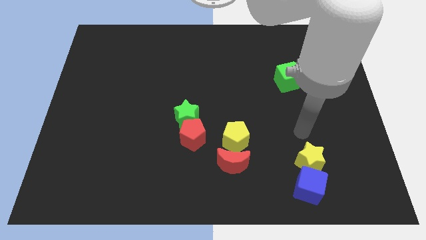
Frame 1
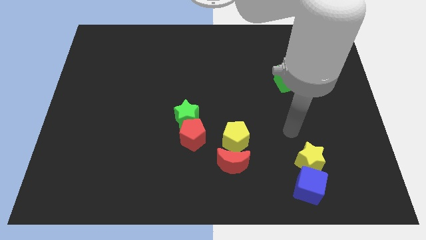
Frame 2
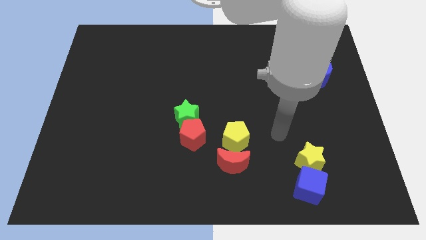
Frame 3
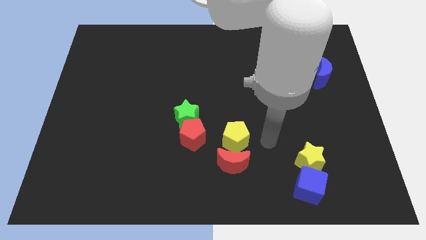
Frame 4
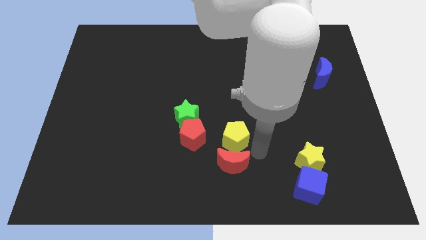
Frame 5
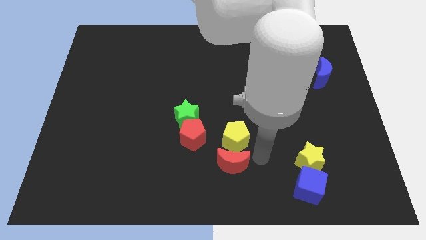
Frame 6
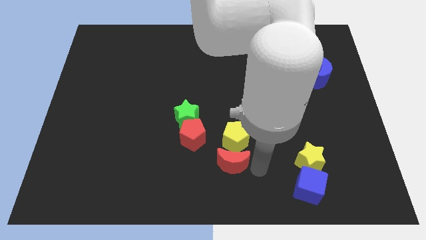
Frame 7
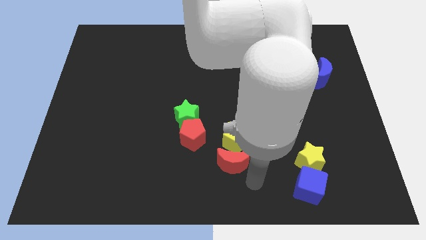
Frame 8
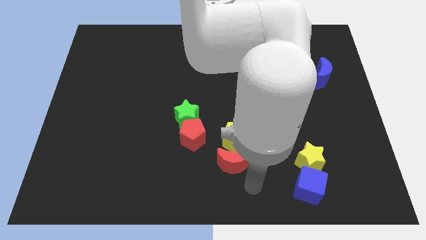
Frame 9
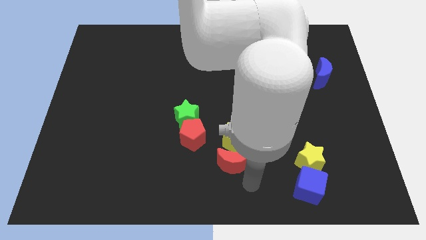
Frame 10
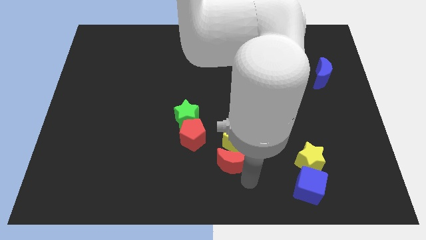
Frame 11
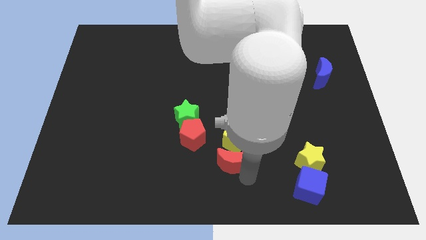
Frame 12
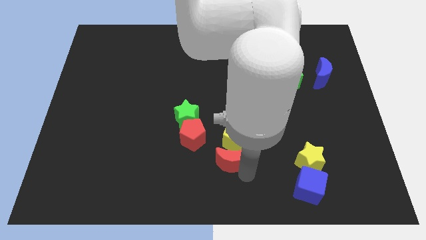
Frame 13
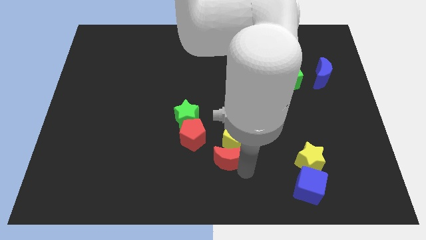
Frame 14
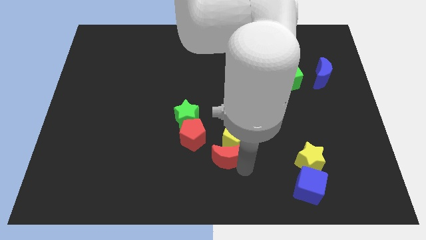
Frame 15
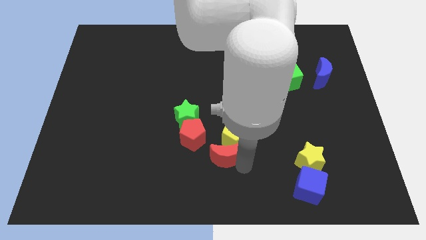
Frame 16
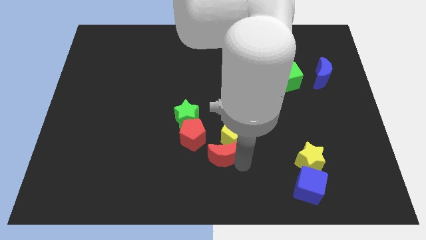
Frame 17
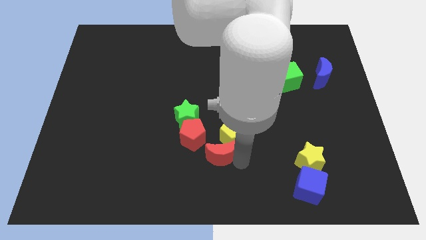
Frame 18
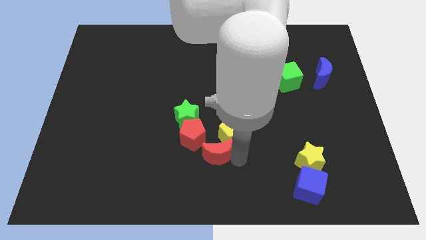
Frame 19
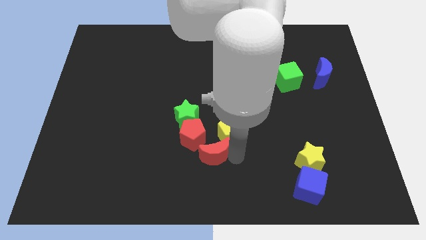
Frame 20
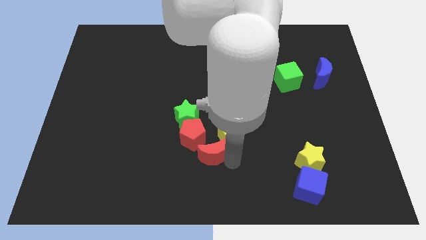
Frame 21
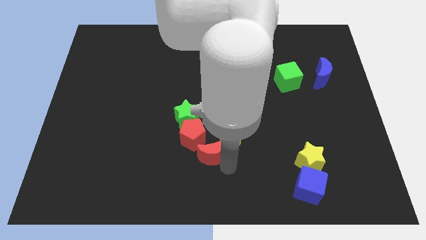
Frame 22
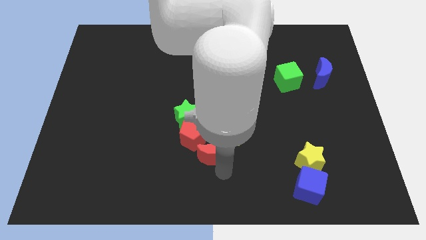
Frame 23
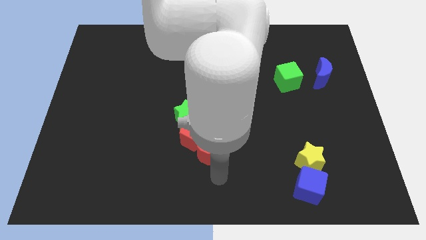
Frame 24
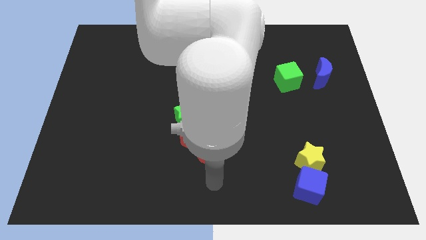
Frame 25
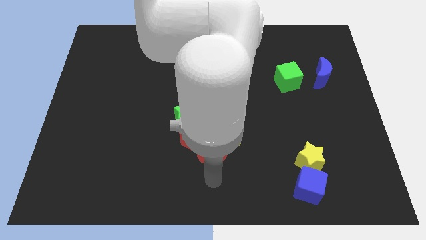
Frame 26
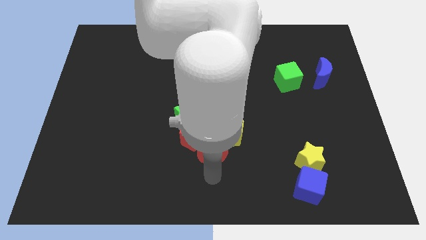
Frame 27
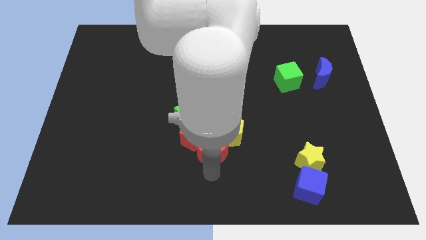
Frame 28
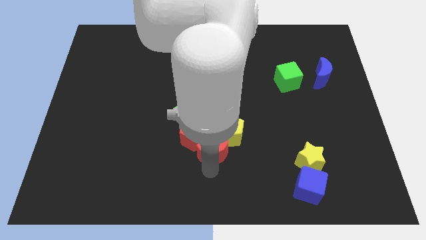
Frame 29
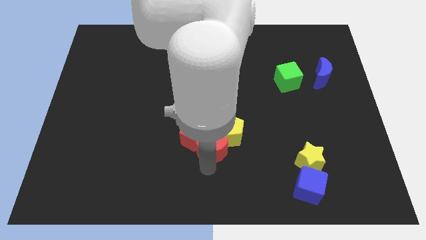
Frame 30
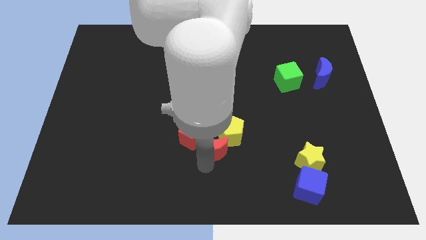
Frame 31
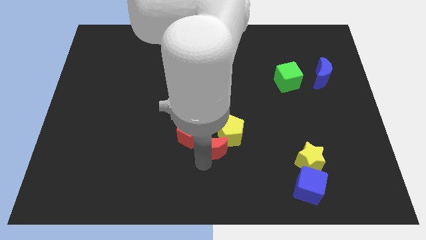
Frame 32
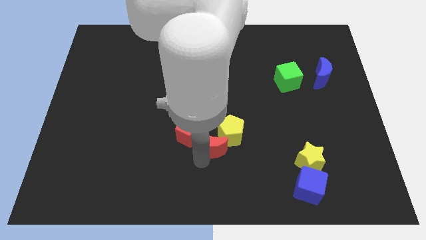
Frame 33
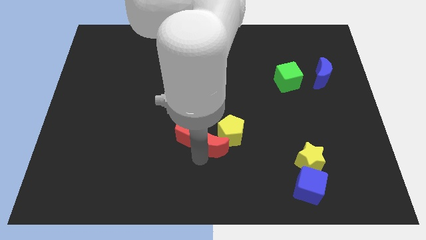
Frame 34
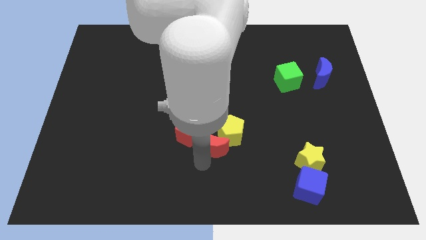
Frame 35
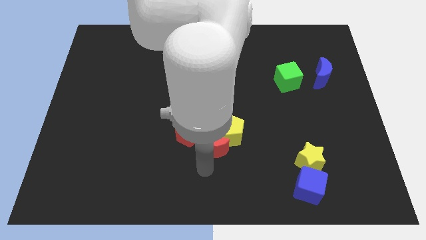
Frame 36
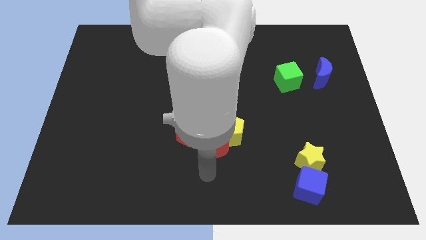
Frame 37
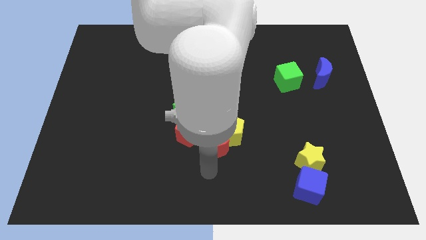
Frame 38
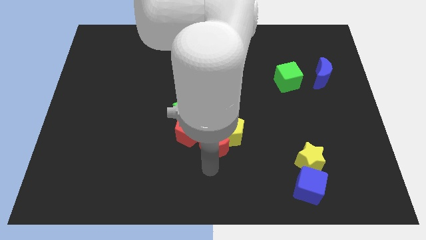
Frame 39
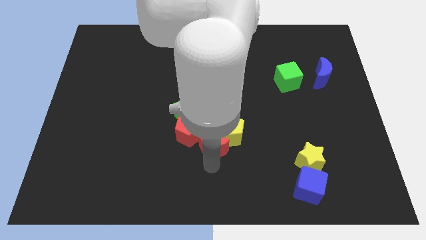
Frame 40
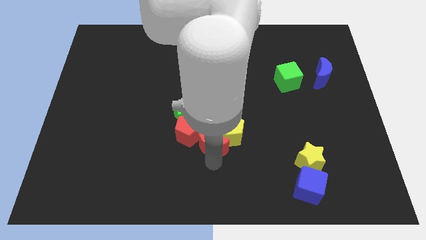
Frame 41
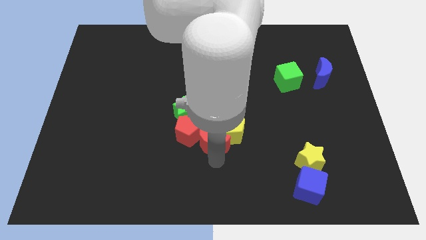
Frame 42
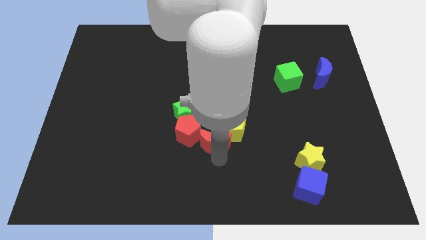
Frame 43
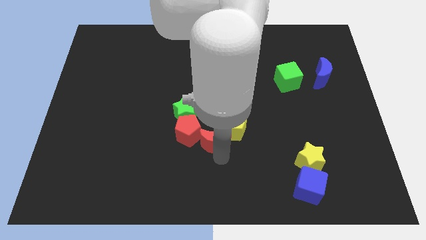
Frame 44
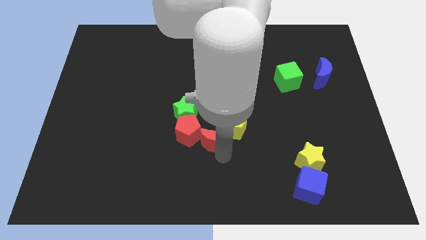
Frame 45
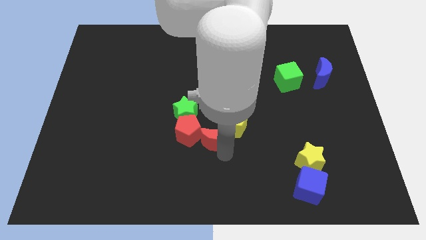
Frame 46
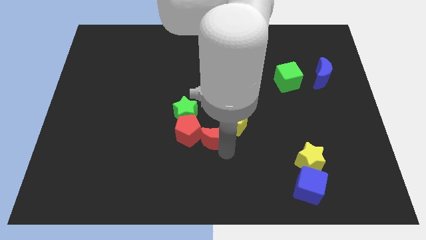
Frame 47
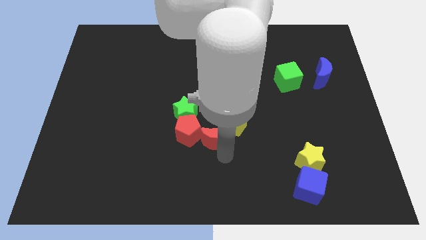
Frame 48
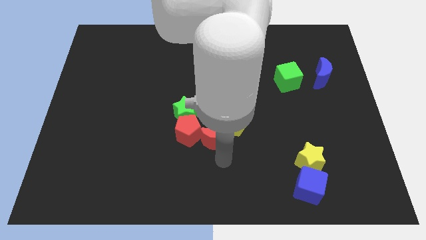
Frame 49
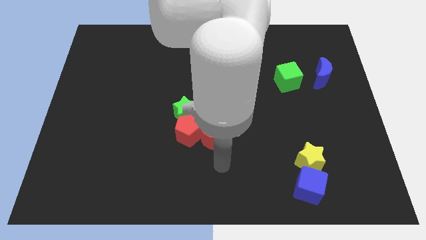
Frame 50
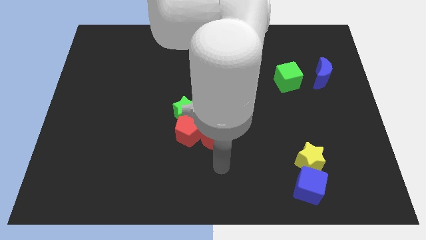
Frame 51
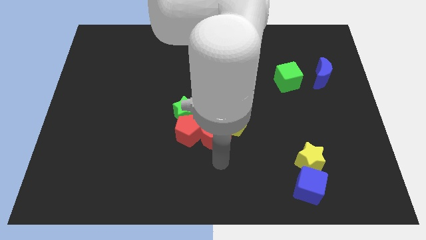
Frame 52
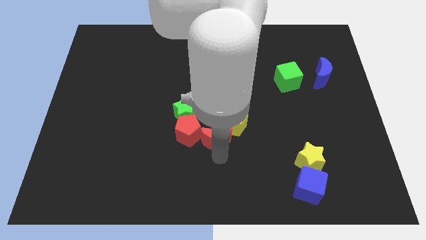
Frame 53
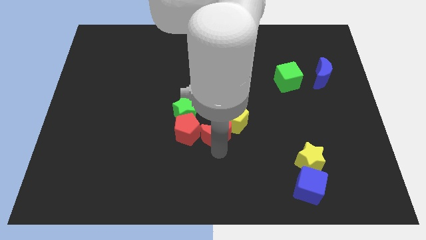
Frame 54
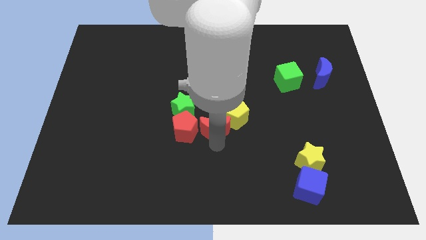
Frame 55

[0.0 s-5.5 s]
slide the red moon somewhat up

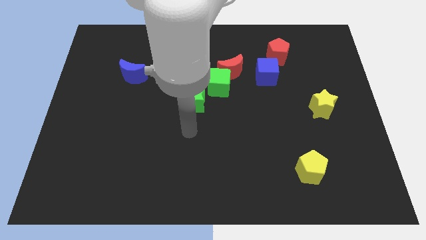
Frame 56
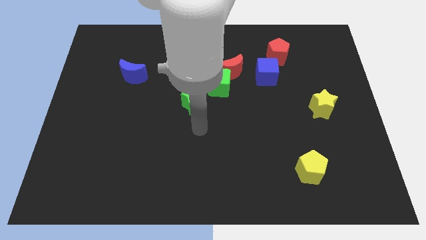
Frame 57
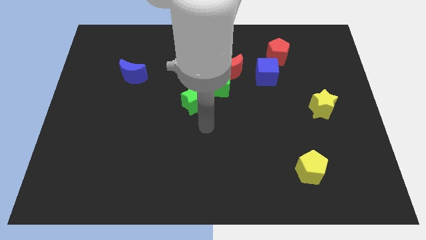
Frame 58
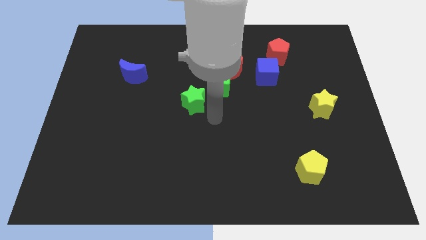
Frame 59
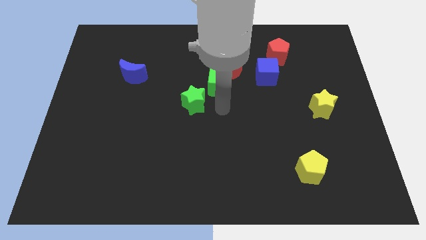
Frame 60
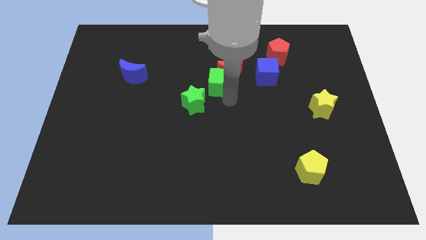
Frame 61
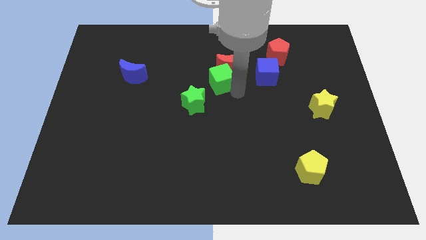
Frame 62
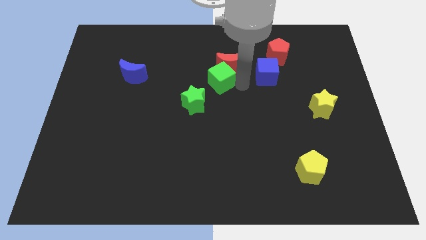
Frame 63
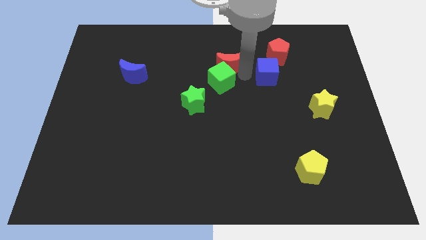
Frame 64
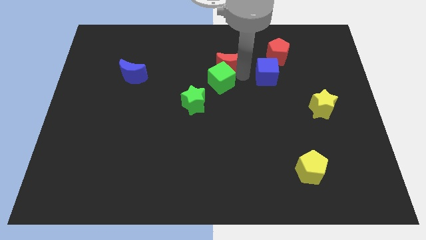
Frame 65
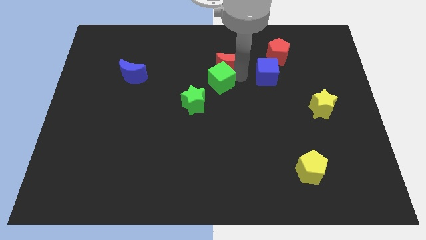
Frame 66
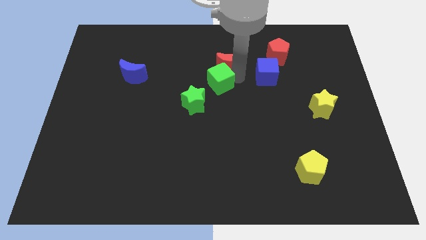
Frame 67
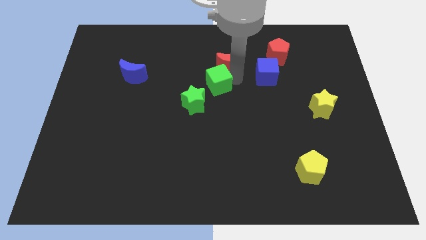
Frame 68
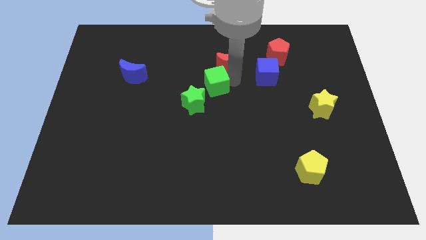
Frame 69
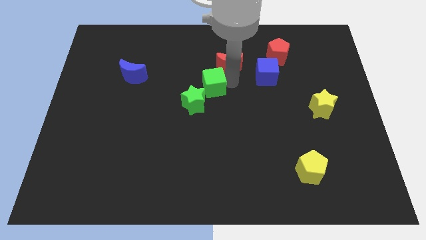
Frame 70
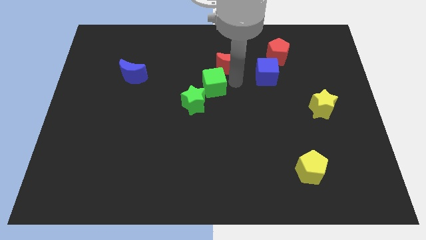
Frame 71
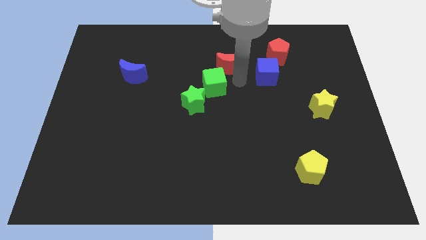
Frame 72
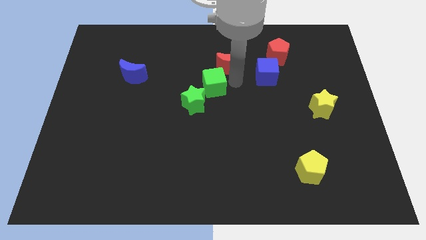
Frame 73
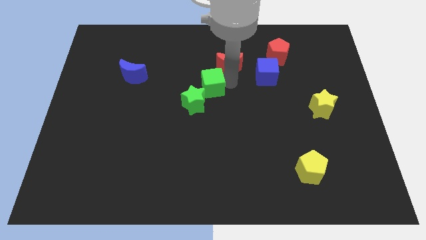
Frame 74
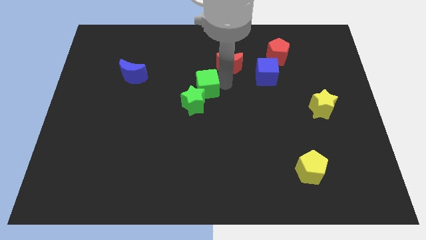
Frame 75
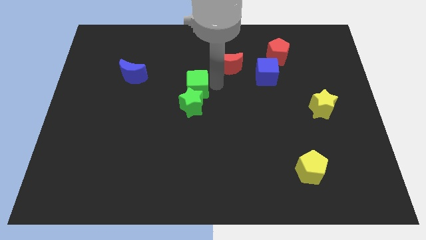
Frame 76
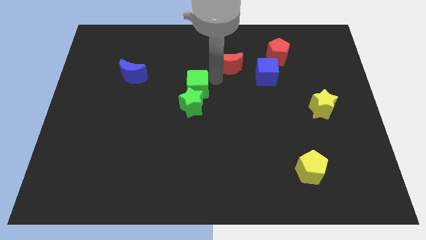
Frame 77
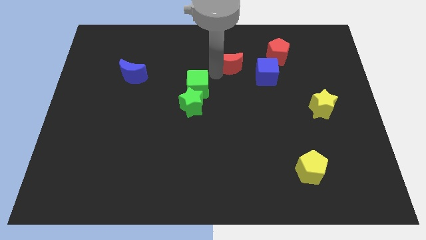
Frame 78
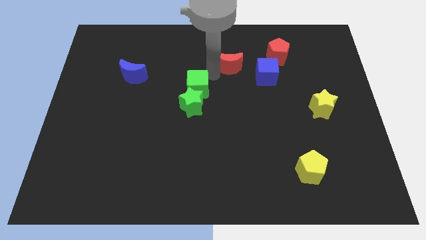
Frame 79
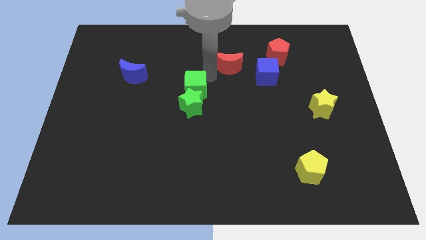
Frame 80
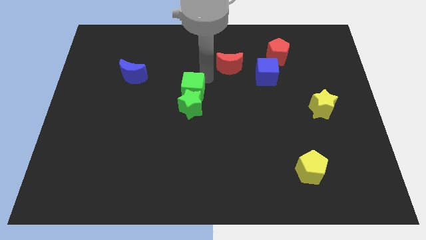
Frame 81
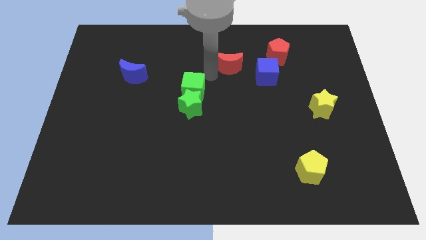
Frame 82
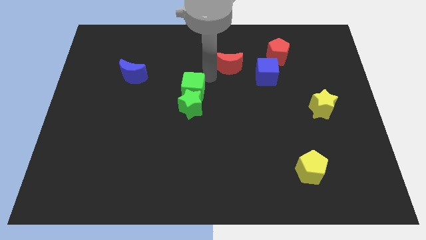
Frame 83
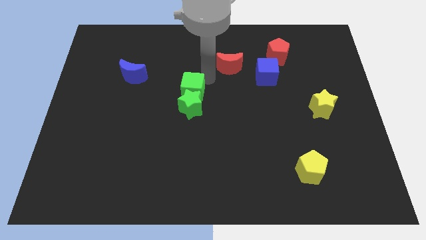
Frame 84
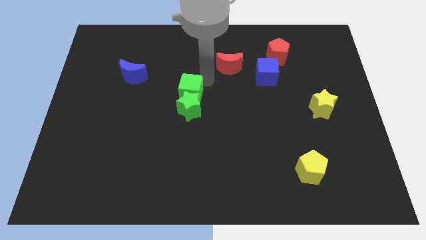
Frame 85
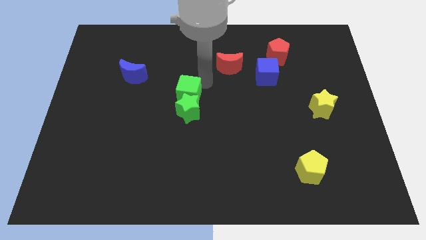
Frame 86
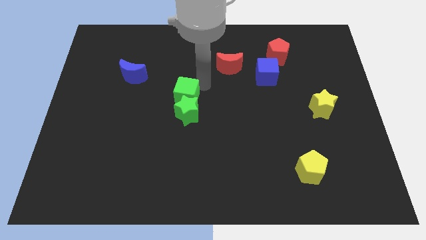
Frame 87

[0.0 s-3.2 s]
move the green cube diagonally downwards and left a little
